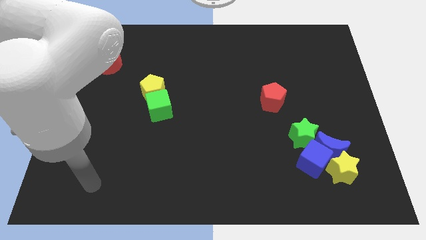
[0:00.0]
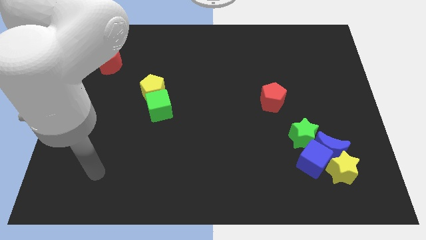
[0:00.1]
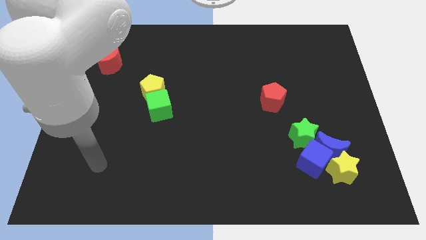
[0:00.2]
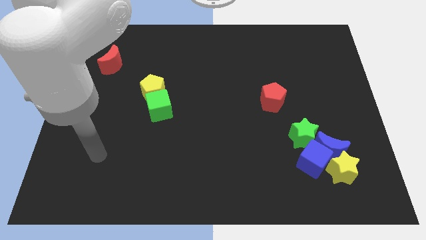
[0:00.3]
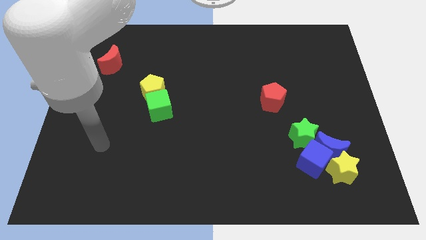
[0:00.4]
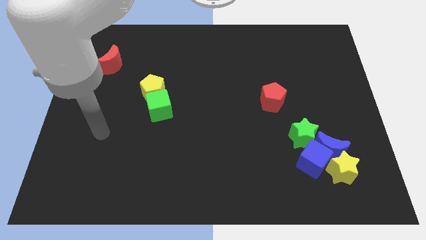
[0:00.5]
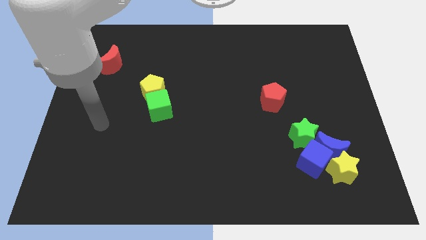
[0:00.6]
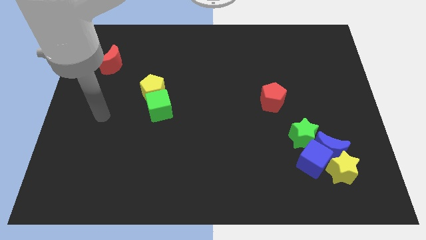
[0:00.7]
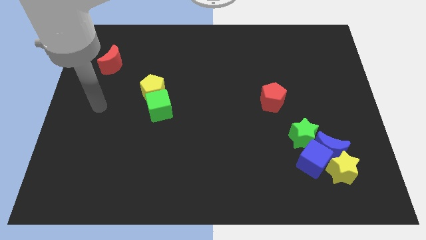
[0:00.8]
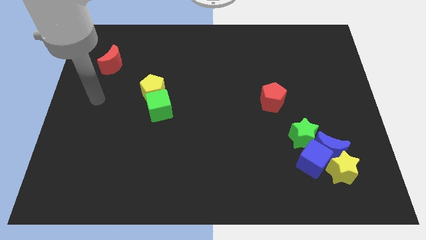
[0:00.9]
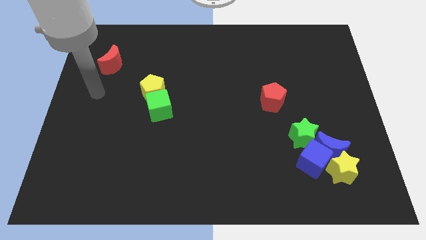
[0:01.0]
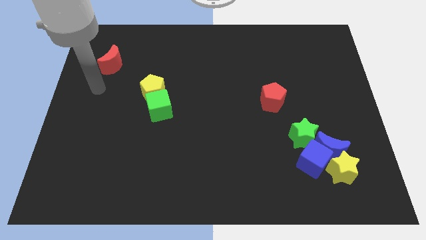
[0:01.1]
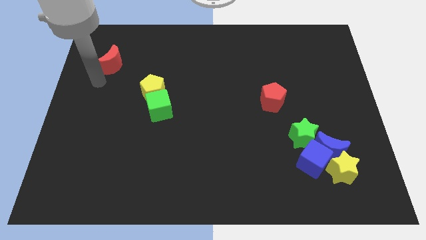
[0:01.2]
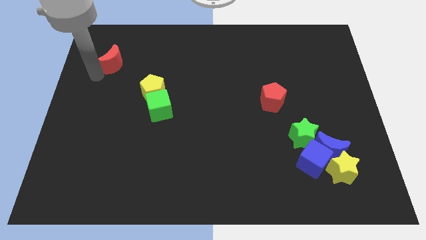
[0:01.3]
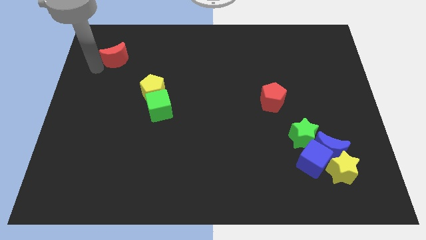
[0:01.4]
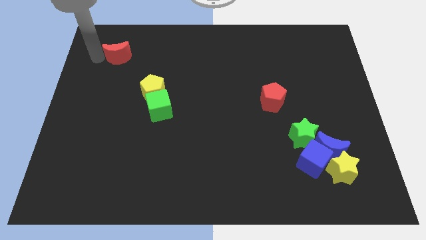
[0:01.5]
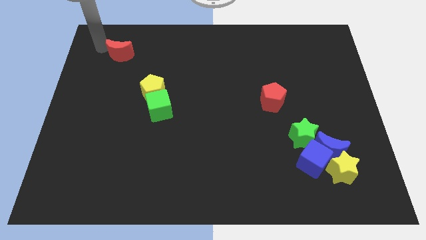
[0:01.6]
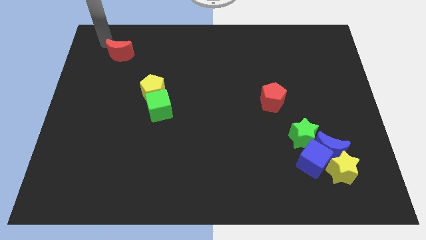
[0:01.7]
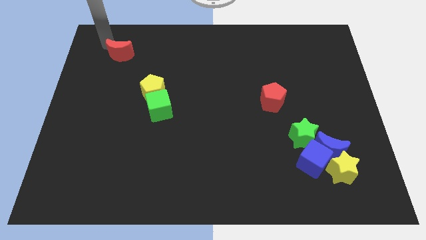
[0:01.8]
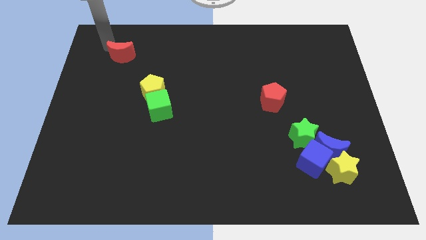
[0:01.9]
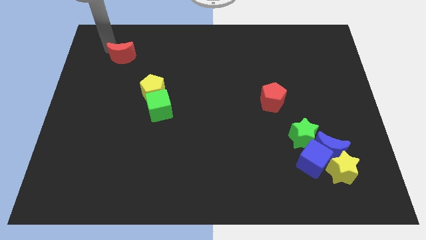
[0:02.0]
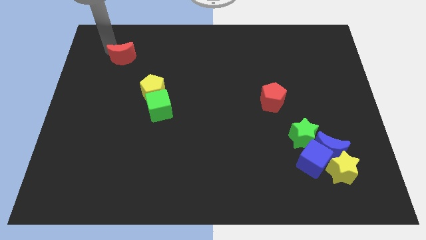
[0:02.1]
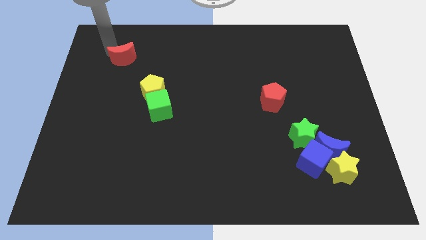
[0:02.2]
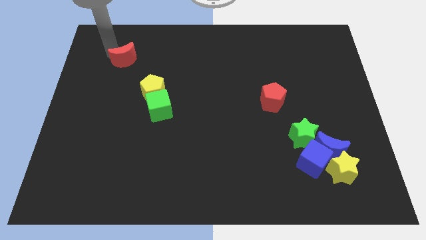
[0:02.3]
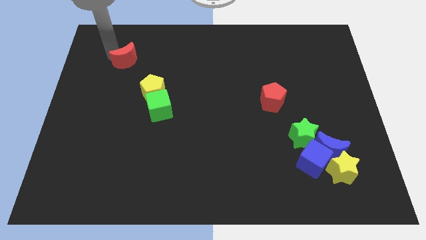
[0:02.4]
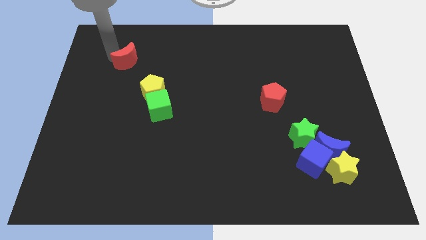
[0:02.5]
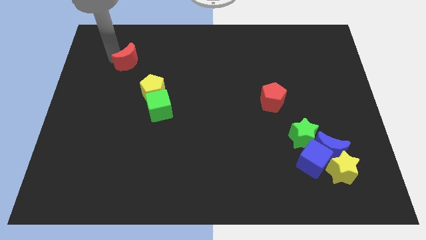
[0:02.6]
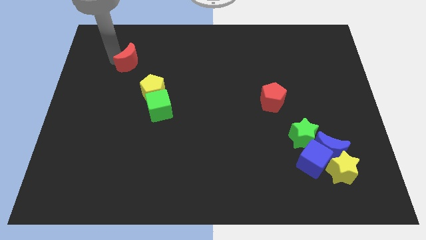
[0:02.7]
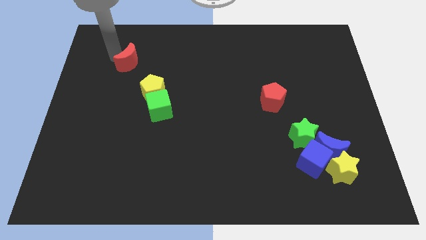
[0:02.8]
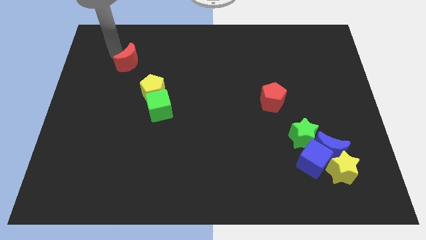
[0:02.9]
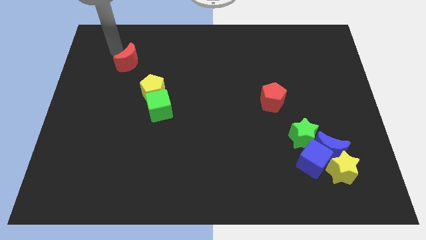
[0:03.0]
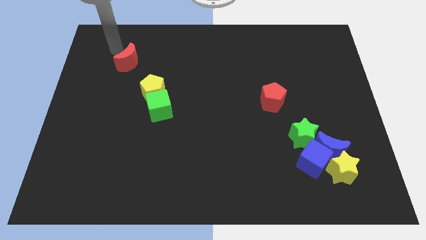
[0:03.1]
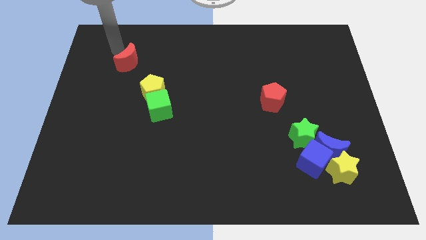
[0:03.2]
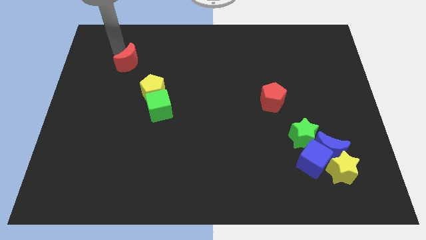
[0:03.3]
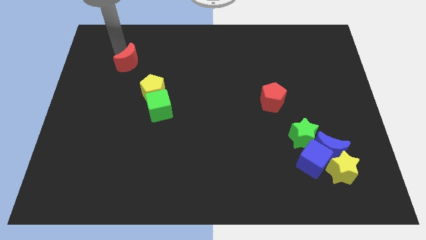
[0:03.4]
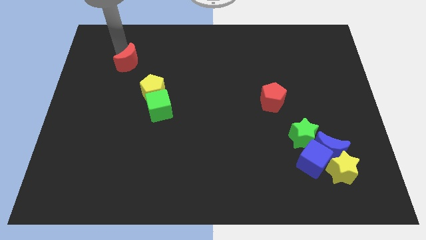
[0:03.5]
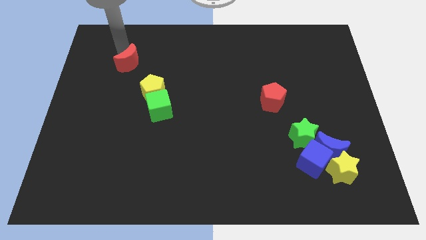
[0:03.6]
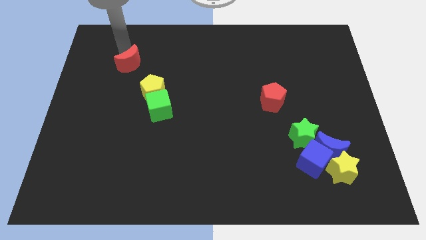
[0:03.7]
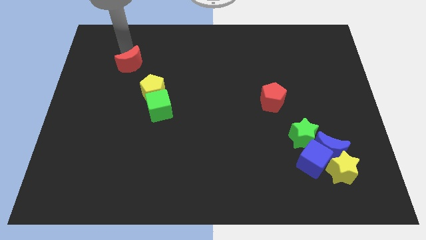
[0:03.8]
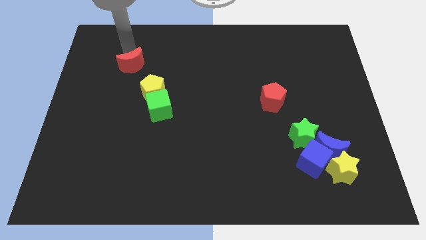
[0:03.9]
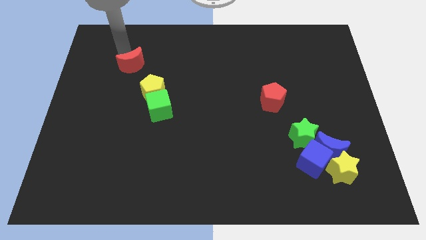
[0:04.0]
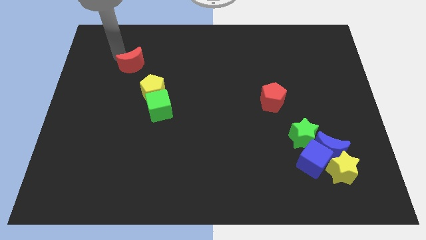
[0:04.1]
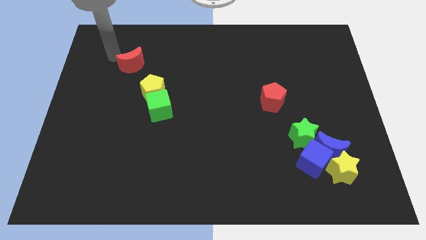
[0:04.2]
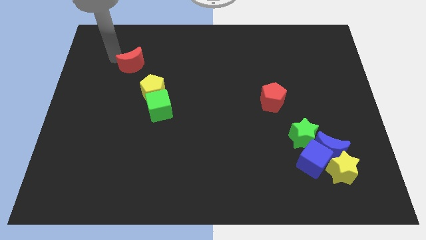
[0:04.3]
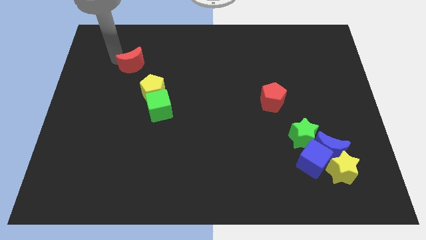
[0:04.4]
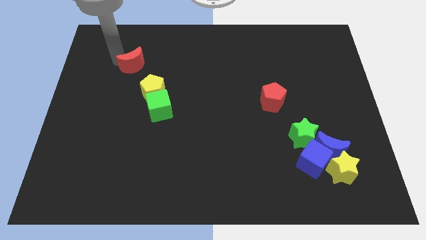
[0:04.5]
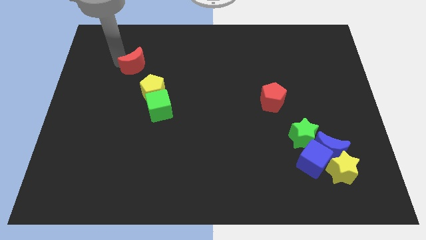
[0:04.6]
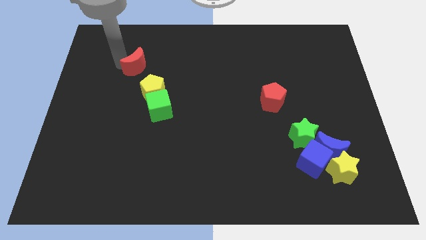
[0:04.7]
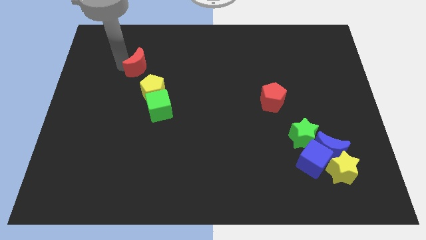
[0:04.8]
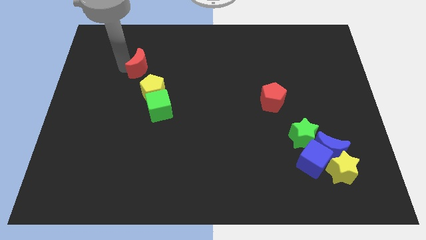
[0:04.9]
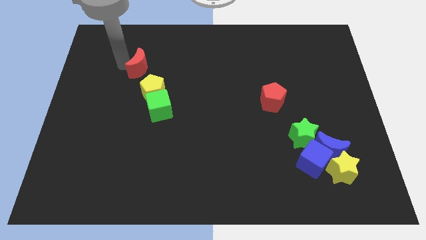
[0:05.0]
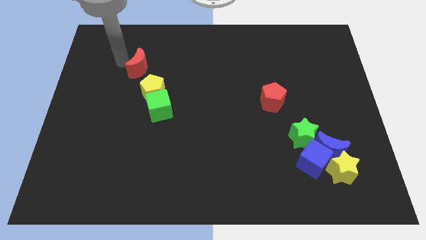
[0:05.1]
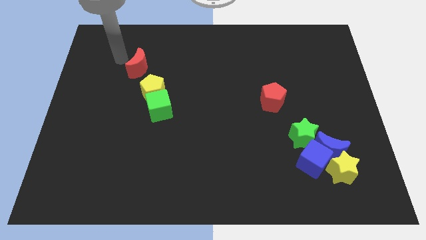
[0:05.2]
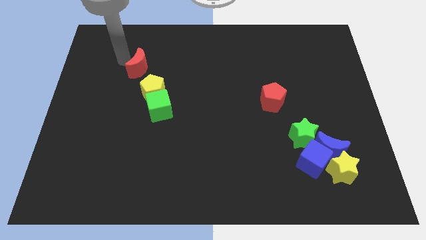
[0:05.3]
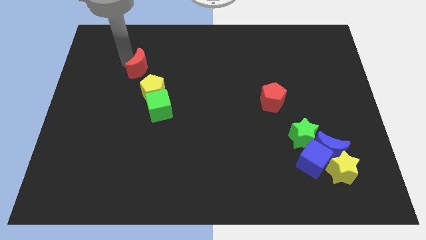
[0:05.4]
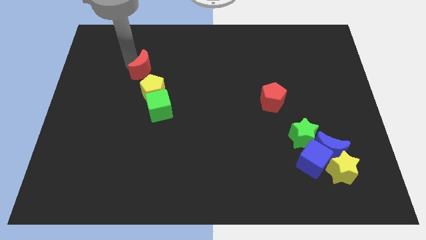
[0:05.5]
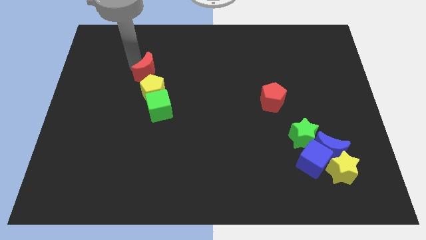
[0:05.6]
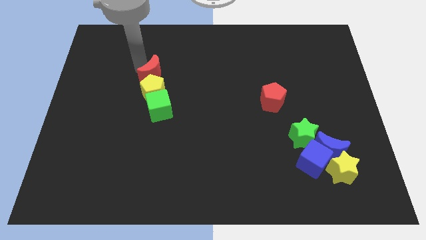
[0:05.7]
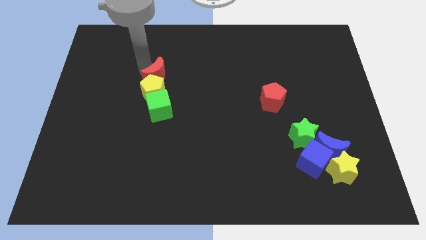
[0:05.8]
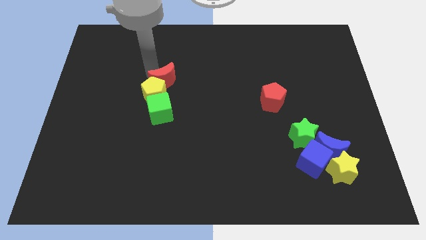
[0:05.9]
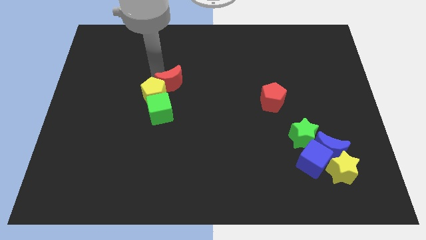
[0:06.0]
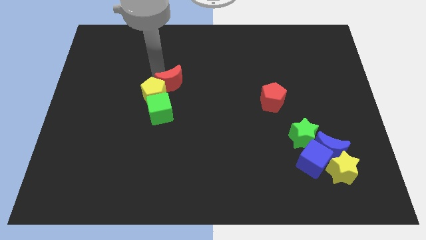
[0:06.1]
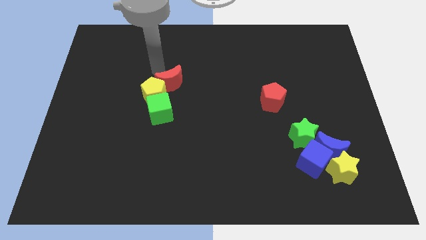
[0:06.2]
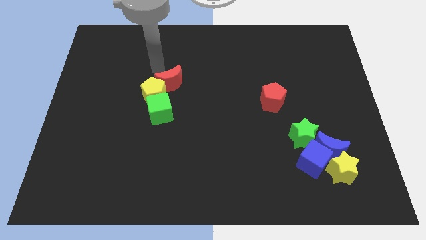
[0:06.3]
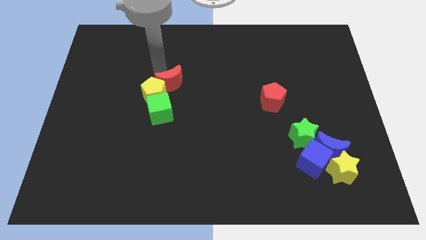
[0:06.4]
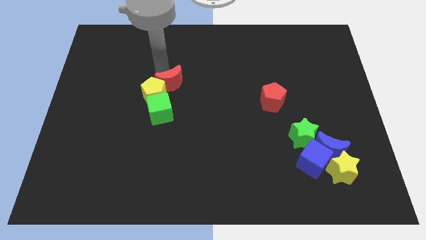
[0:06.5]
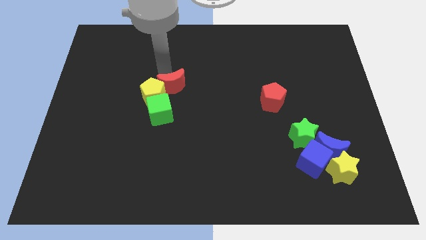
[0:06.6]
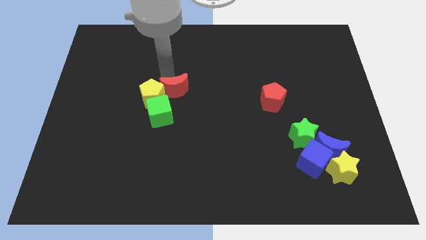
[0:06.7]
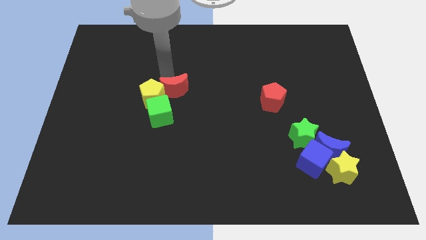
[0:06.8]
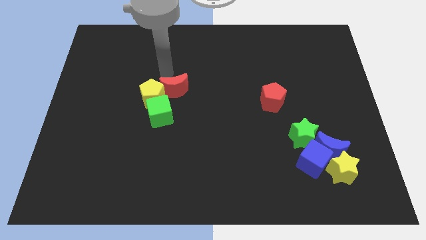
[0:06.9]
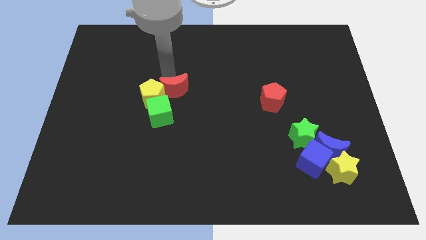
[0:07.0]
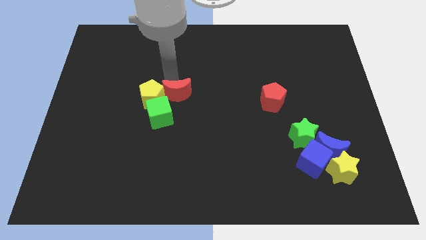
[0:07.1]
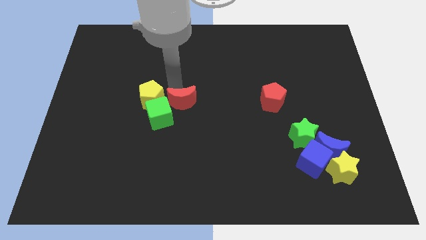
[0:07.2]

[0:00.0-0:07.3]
push the red moon downwards and to the right diagonally

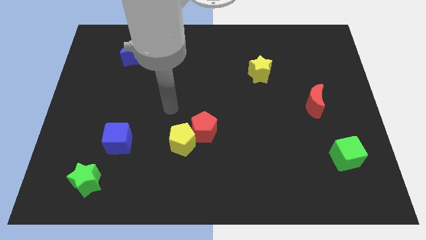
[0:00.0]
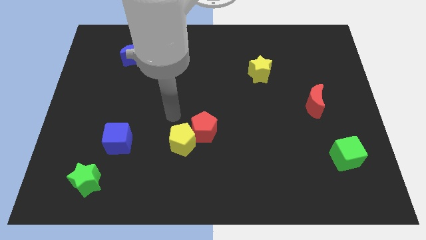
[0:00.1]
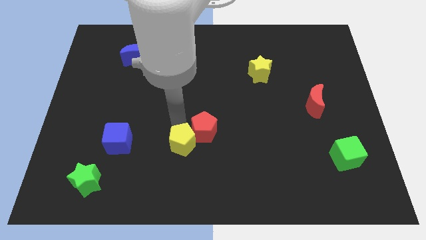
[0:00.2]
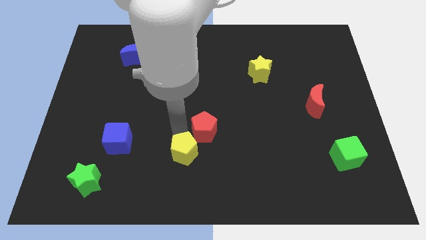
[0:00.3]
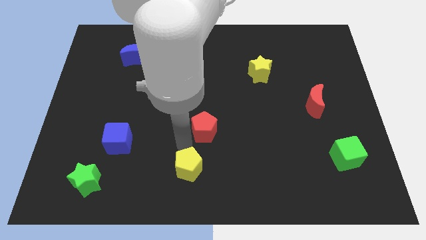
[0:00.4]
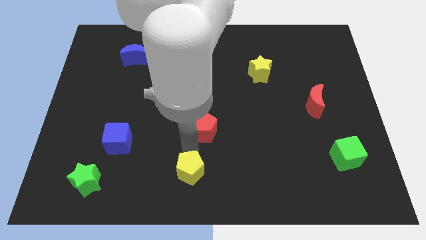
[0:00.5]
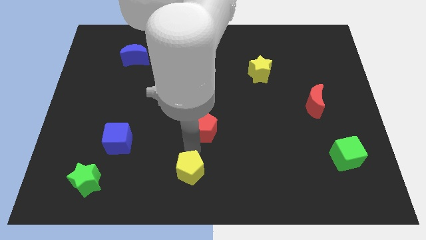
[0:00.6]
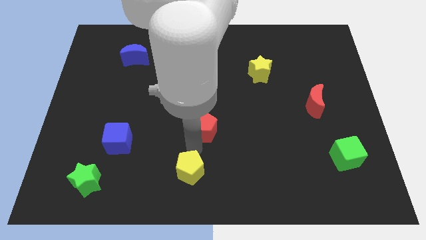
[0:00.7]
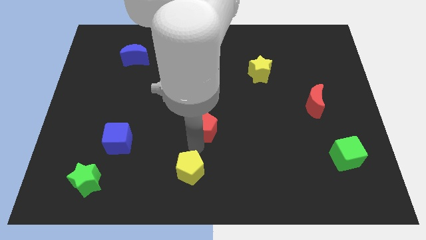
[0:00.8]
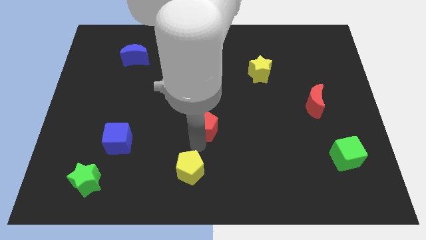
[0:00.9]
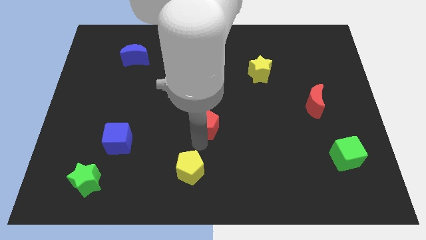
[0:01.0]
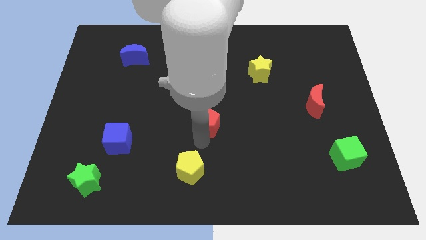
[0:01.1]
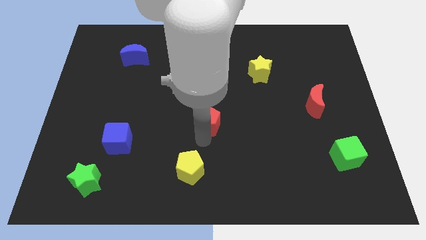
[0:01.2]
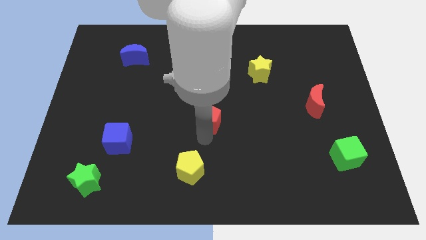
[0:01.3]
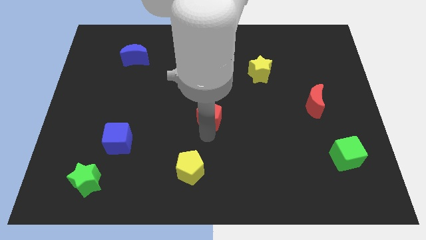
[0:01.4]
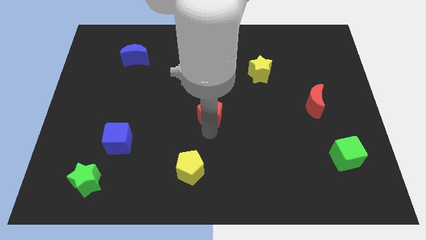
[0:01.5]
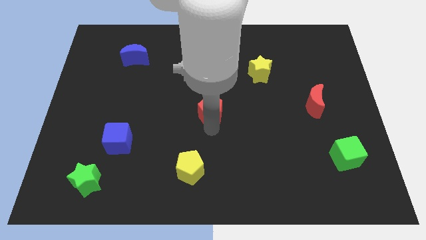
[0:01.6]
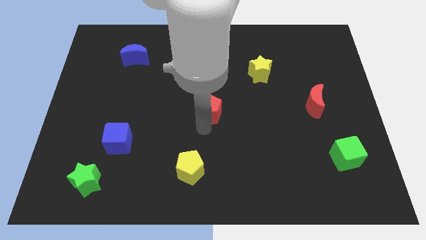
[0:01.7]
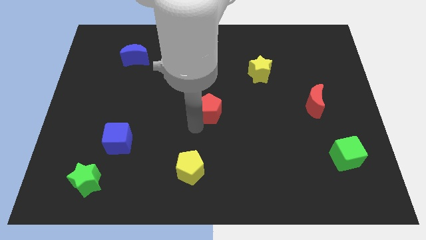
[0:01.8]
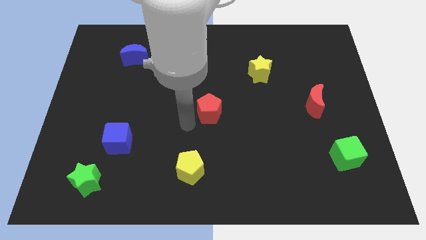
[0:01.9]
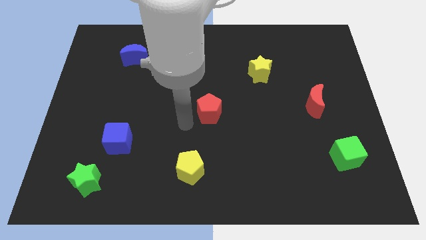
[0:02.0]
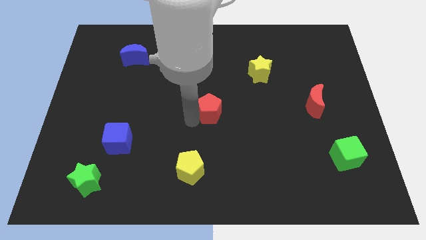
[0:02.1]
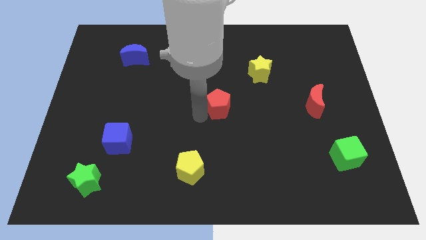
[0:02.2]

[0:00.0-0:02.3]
push the red pentagon a bit diagonally upwards and to the right
